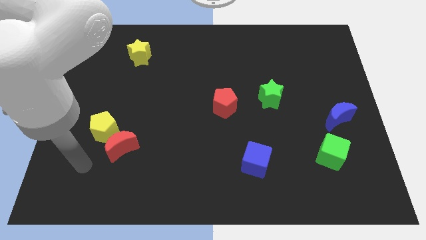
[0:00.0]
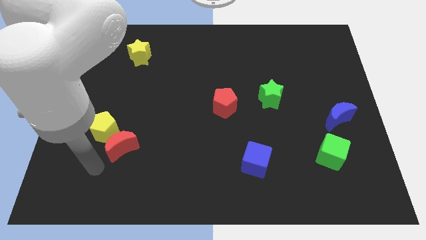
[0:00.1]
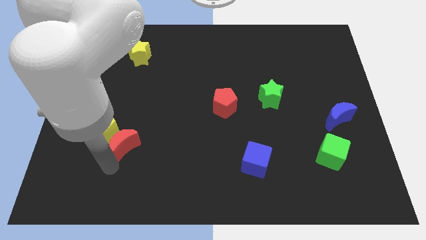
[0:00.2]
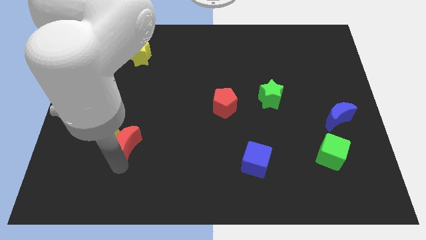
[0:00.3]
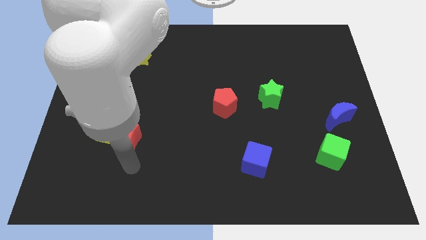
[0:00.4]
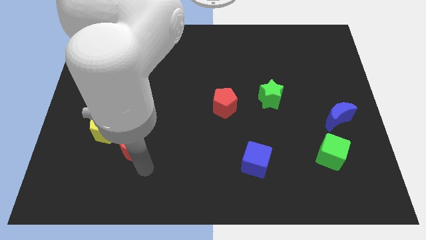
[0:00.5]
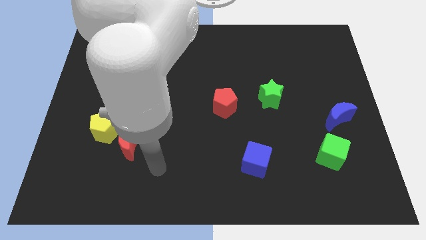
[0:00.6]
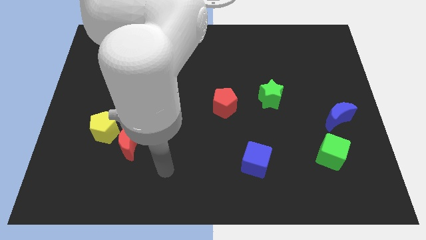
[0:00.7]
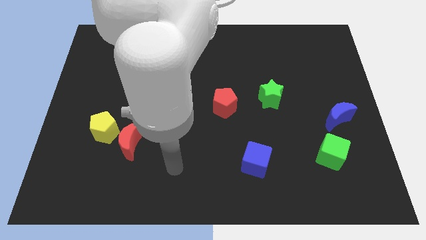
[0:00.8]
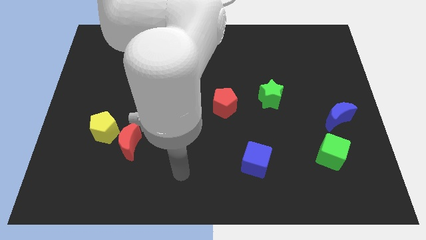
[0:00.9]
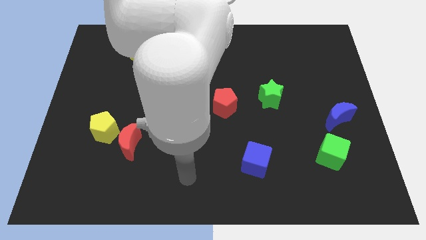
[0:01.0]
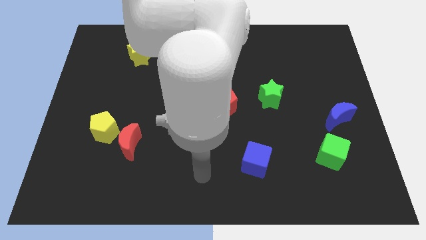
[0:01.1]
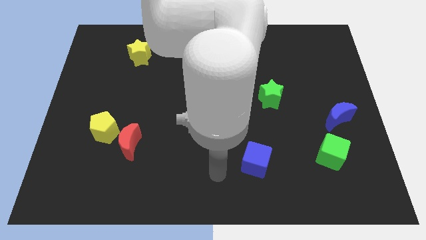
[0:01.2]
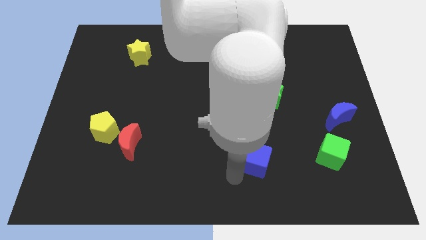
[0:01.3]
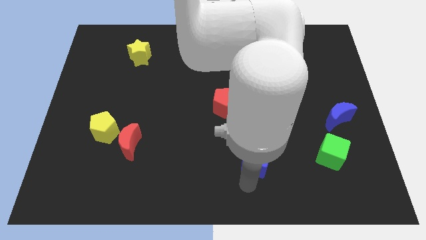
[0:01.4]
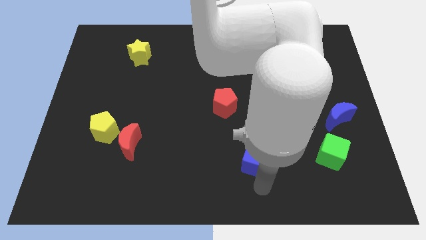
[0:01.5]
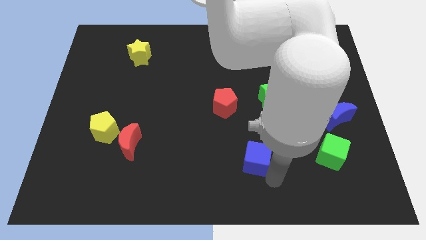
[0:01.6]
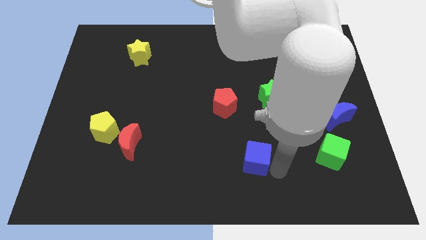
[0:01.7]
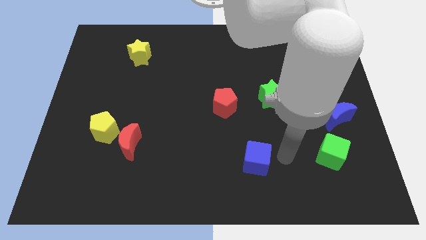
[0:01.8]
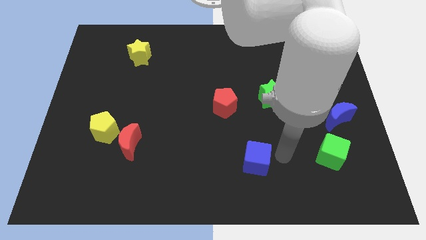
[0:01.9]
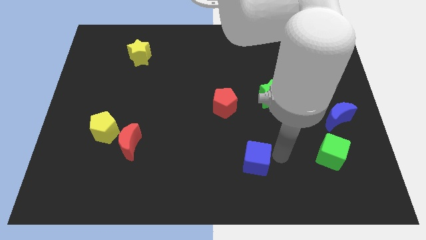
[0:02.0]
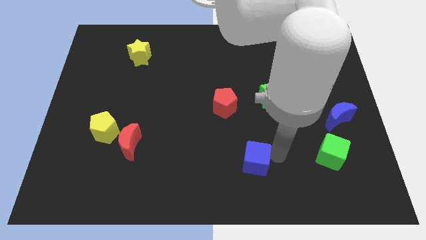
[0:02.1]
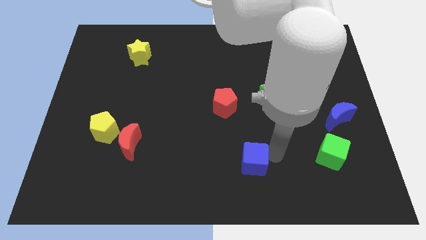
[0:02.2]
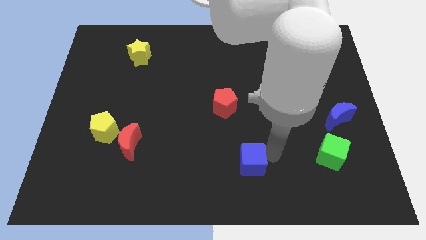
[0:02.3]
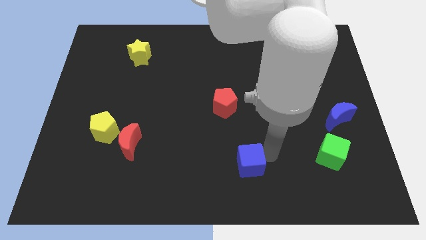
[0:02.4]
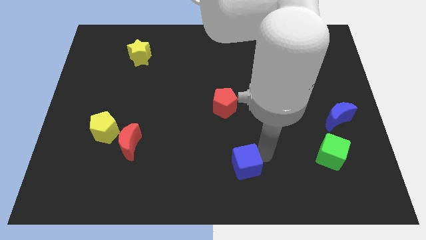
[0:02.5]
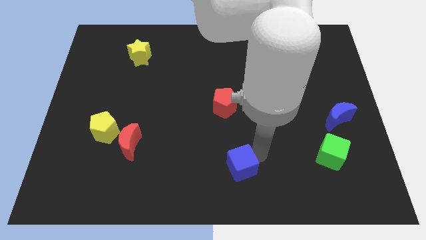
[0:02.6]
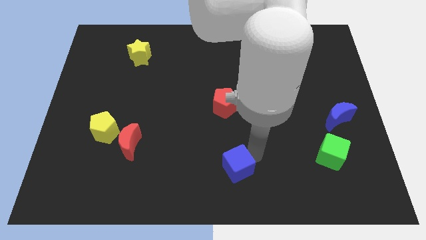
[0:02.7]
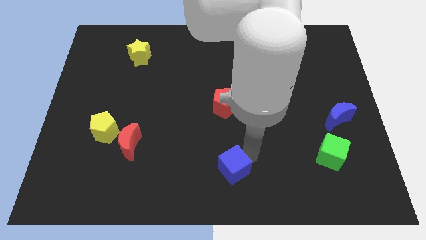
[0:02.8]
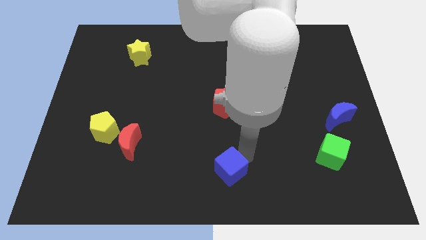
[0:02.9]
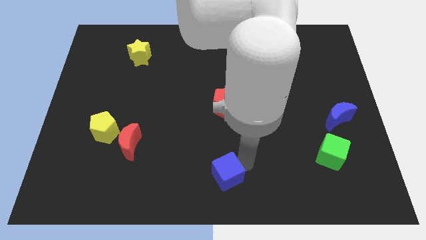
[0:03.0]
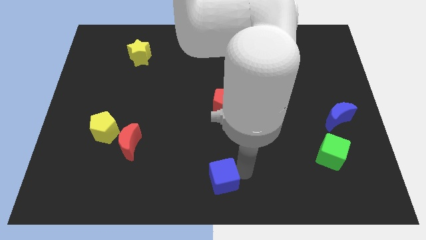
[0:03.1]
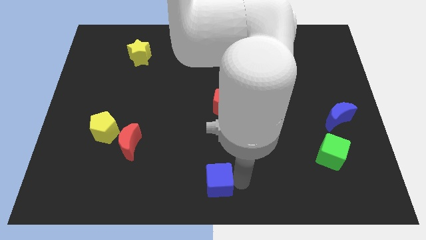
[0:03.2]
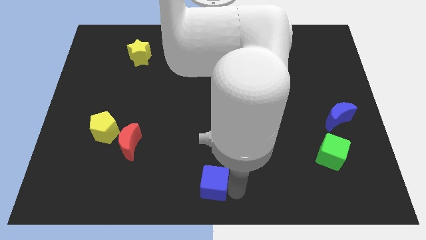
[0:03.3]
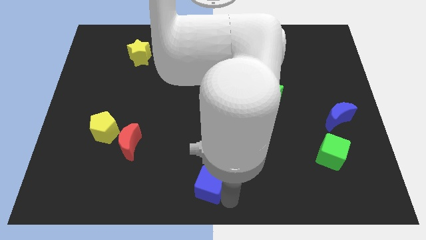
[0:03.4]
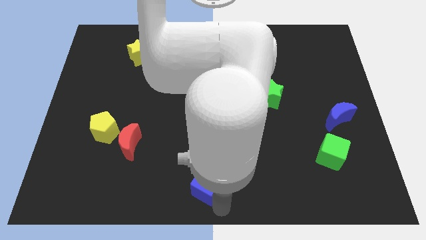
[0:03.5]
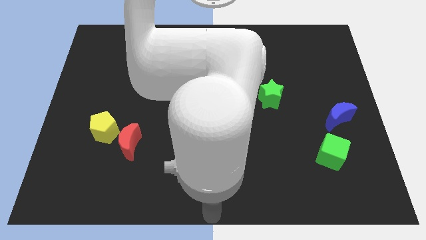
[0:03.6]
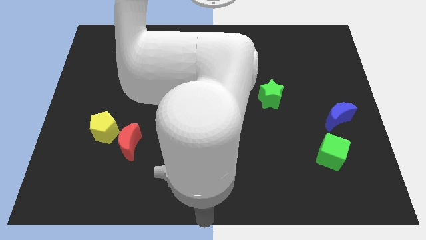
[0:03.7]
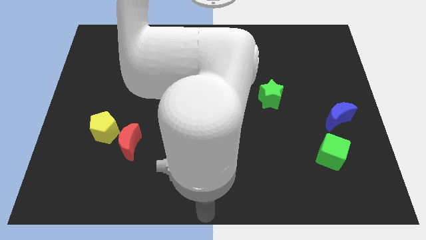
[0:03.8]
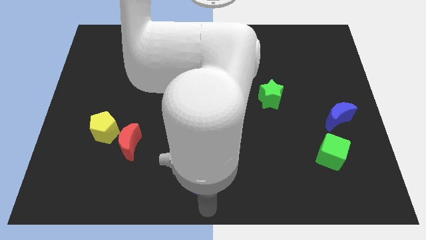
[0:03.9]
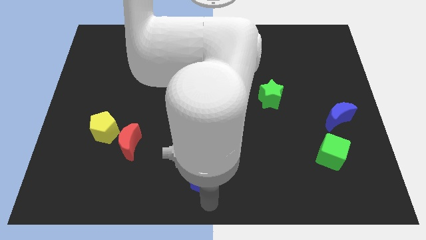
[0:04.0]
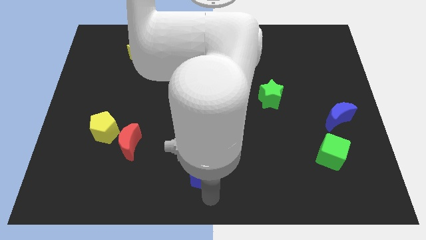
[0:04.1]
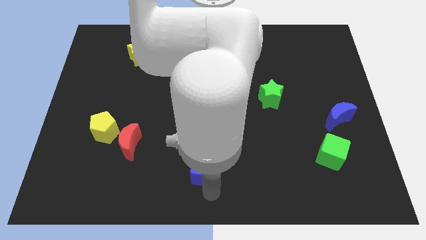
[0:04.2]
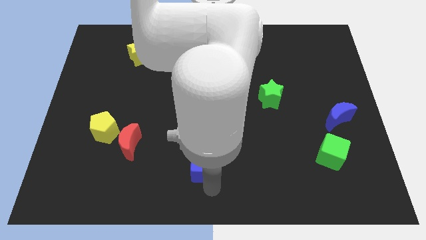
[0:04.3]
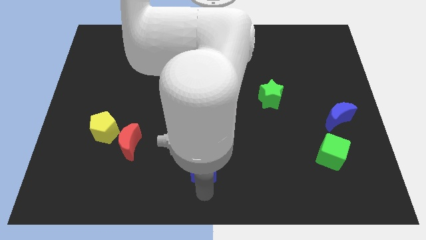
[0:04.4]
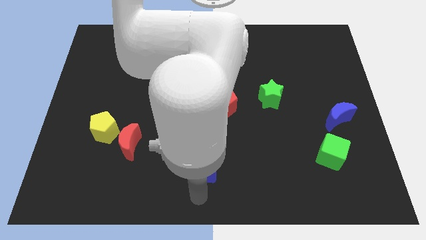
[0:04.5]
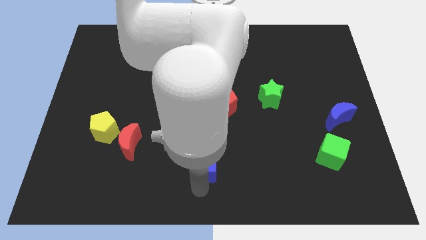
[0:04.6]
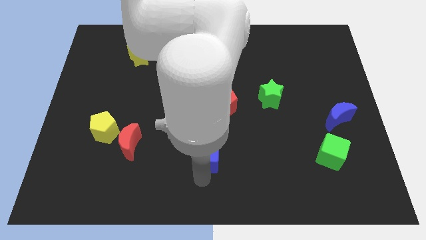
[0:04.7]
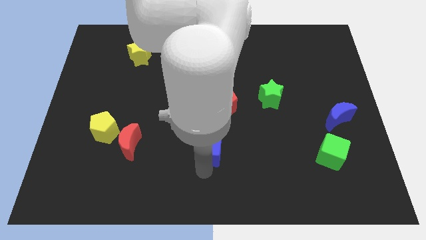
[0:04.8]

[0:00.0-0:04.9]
move the blue cube up and then to the left somewhat

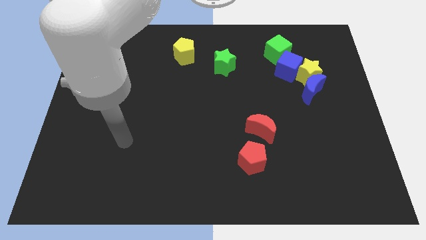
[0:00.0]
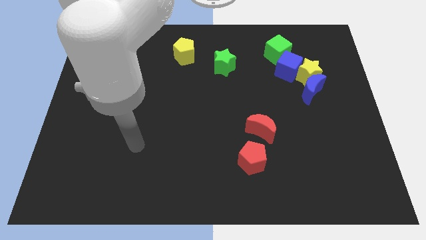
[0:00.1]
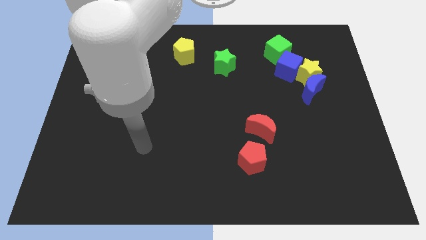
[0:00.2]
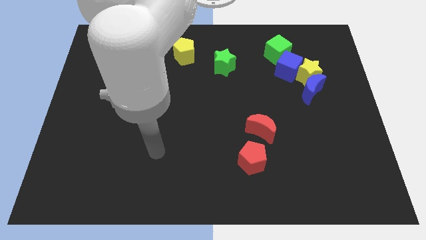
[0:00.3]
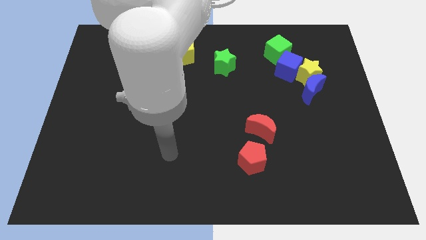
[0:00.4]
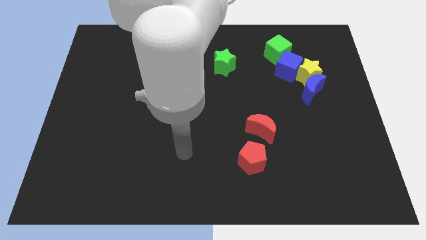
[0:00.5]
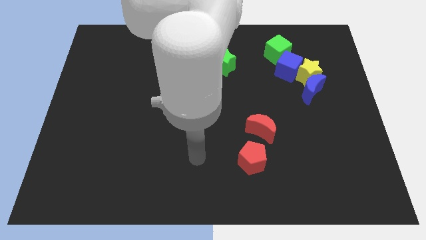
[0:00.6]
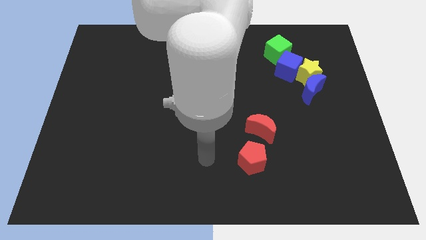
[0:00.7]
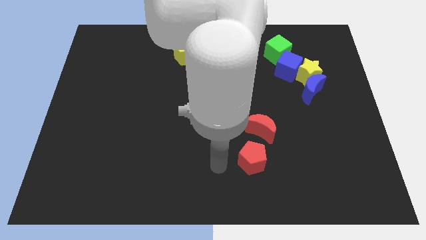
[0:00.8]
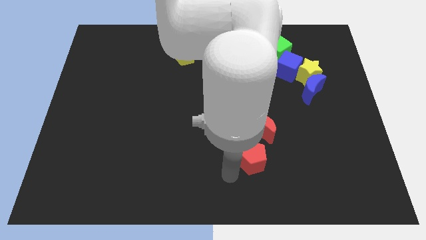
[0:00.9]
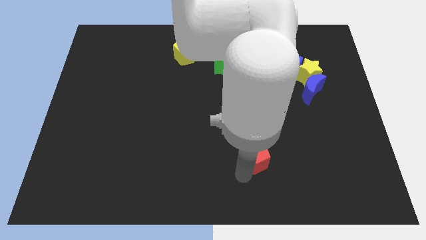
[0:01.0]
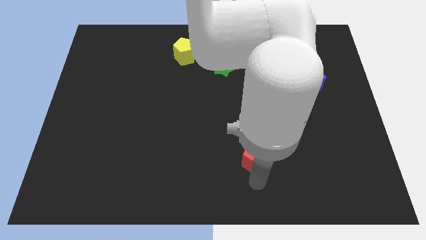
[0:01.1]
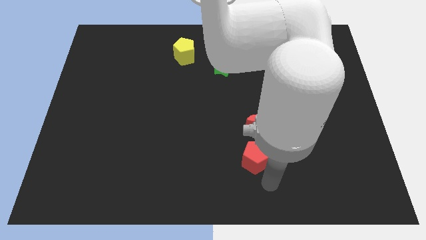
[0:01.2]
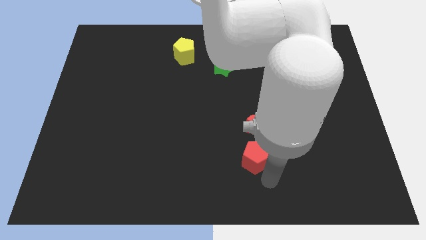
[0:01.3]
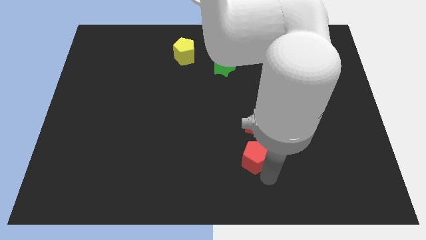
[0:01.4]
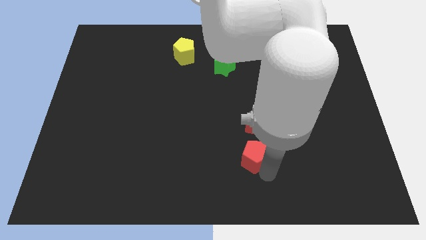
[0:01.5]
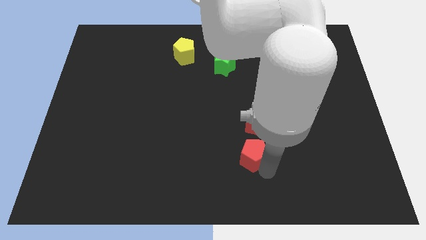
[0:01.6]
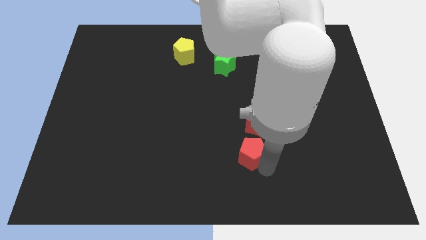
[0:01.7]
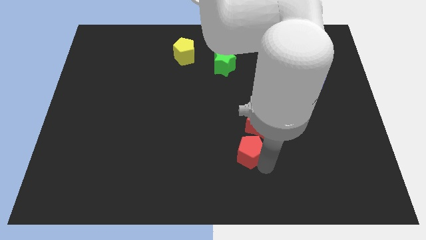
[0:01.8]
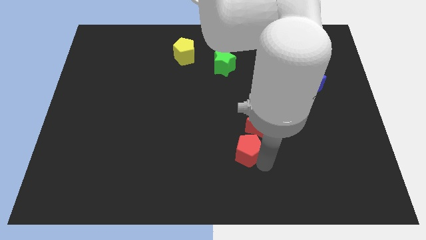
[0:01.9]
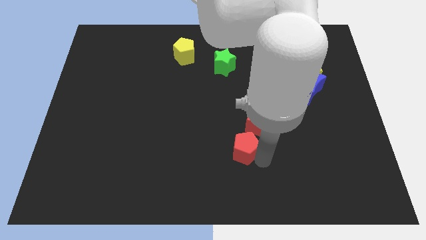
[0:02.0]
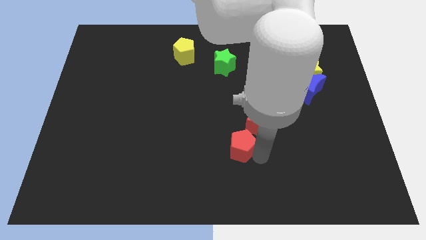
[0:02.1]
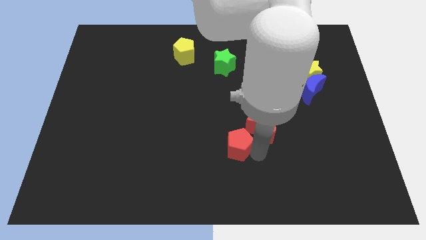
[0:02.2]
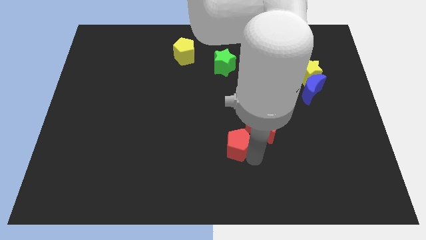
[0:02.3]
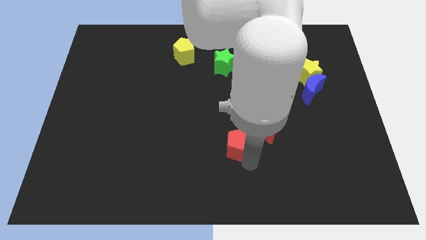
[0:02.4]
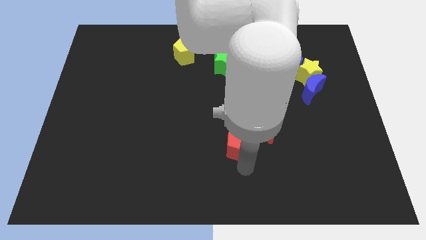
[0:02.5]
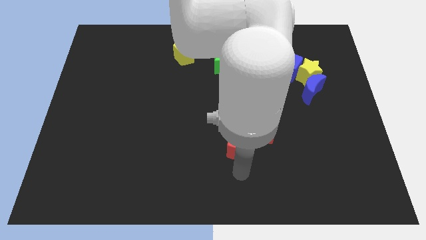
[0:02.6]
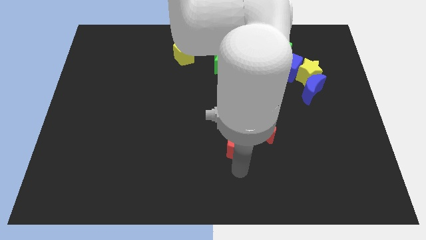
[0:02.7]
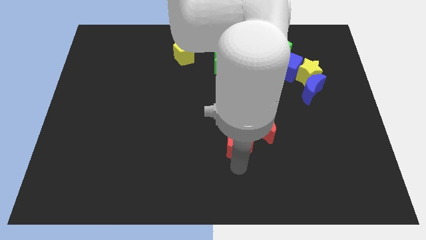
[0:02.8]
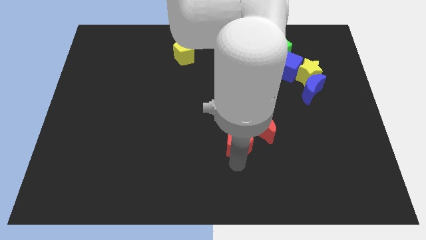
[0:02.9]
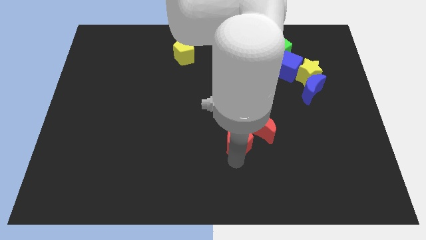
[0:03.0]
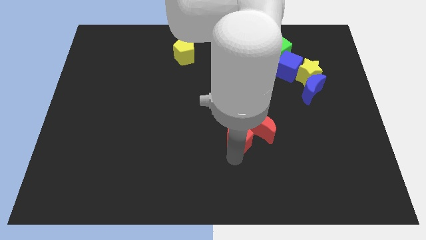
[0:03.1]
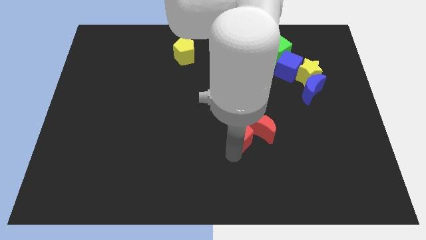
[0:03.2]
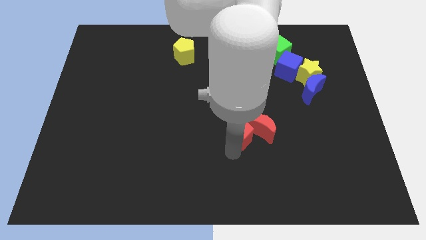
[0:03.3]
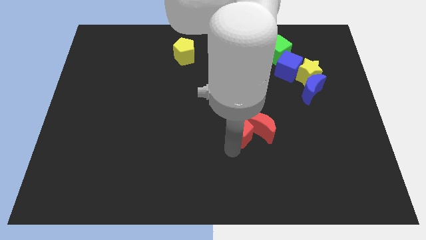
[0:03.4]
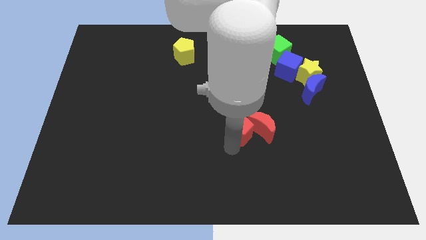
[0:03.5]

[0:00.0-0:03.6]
slide the red pentagon upwards a little bit
